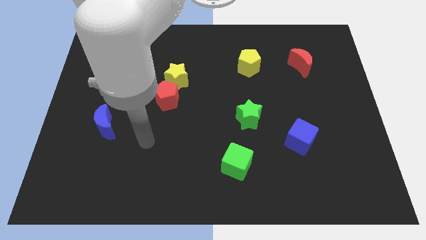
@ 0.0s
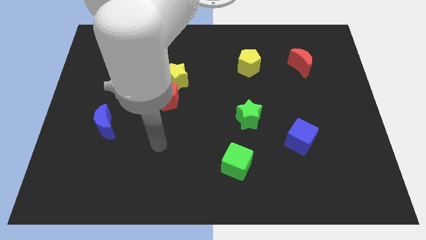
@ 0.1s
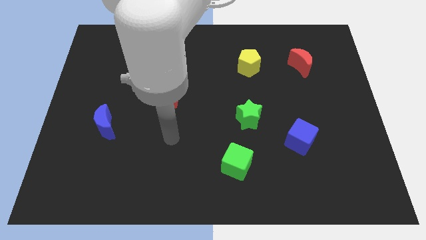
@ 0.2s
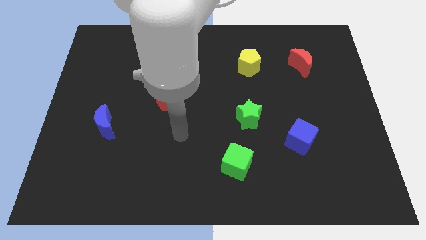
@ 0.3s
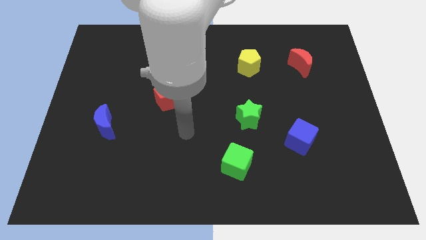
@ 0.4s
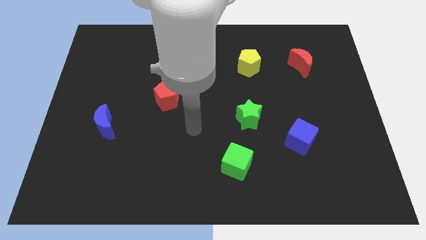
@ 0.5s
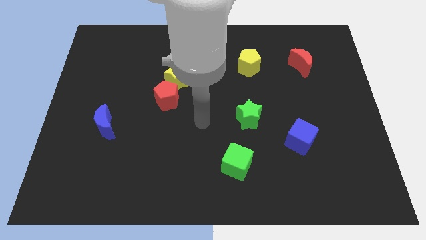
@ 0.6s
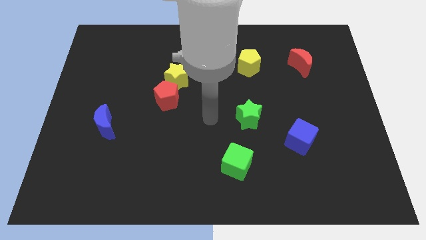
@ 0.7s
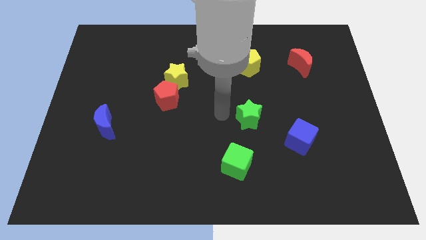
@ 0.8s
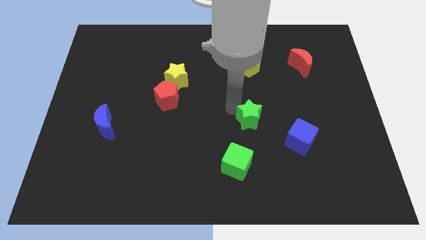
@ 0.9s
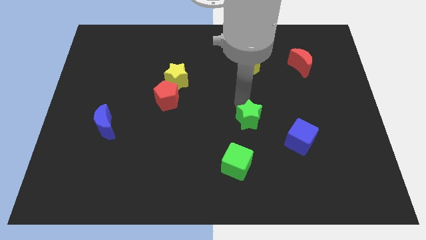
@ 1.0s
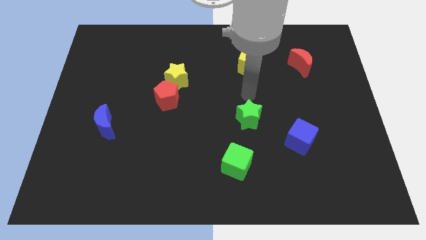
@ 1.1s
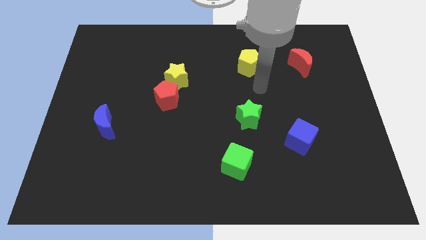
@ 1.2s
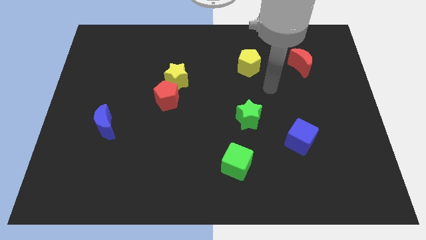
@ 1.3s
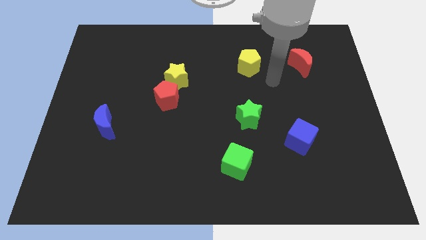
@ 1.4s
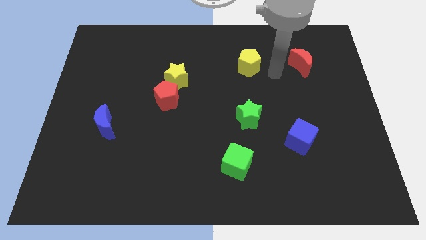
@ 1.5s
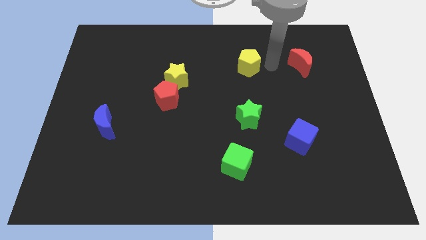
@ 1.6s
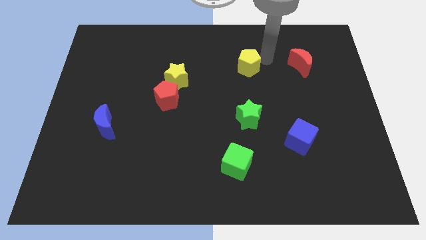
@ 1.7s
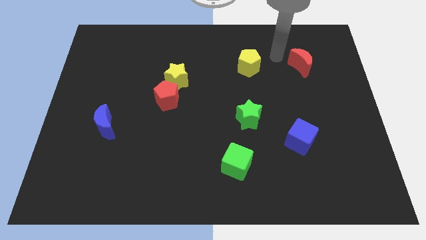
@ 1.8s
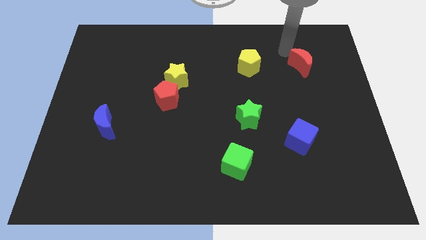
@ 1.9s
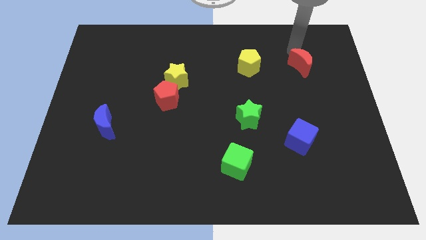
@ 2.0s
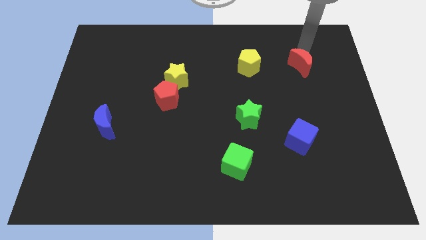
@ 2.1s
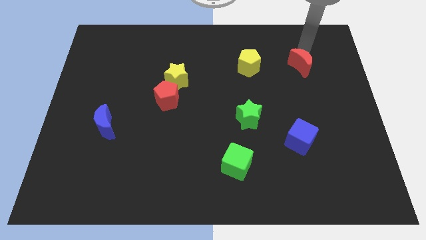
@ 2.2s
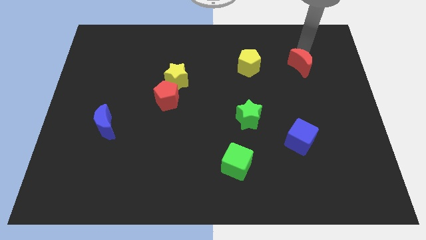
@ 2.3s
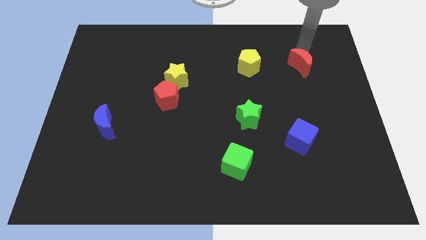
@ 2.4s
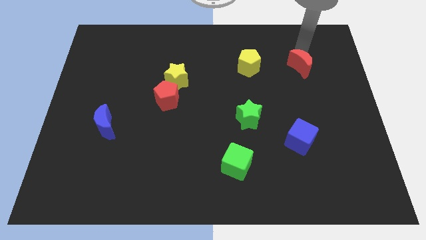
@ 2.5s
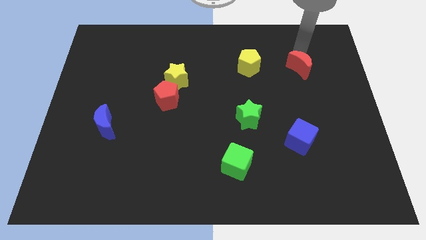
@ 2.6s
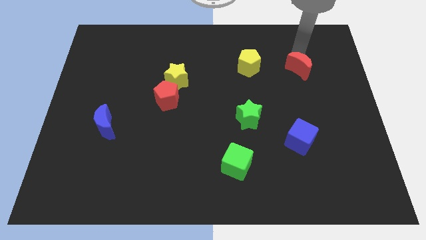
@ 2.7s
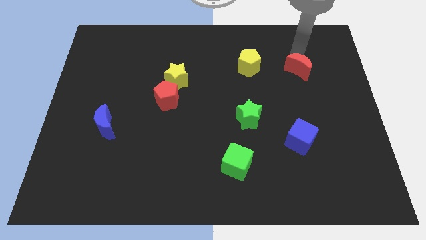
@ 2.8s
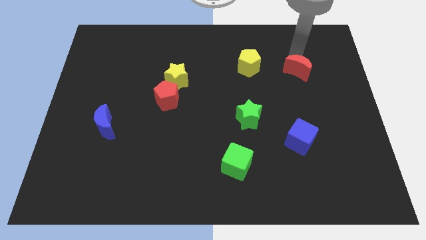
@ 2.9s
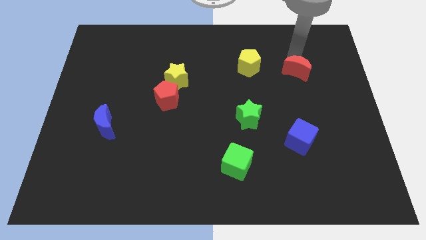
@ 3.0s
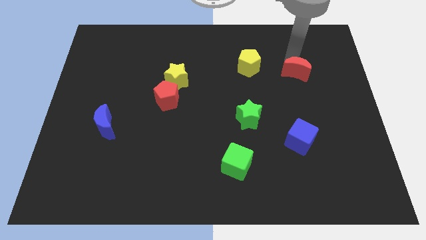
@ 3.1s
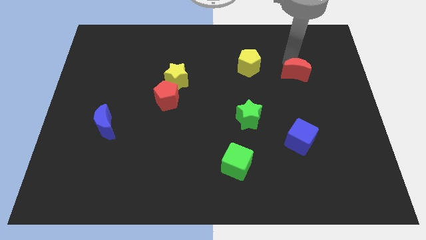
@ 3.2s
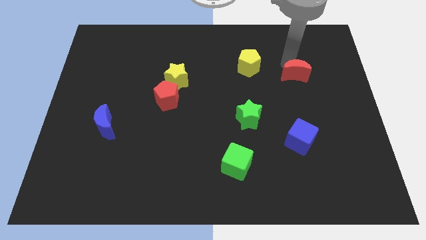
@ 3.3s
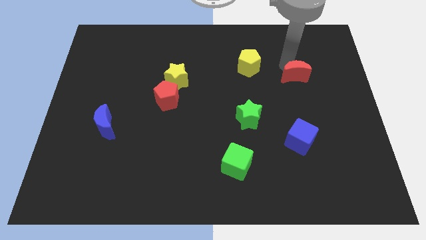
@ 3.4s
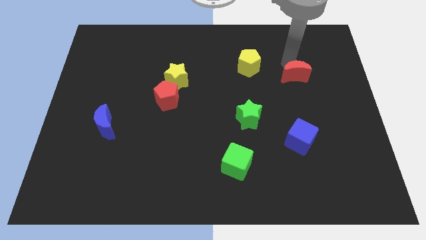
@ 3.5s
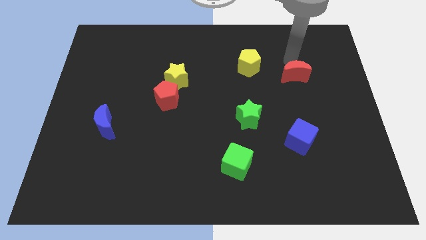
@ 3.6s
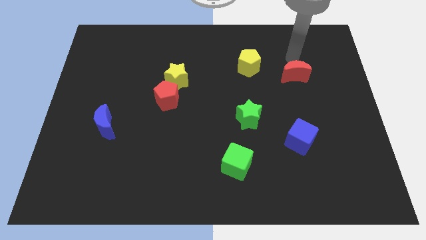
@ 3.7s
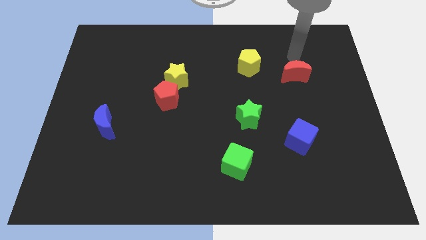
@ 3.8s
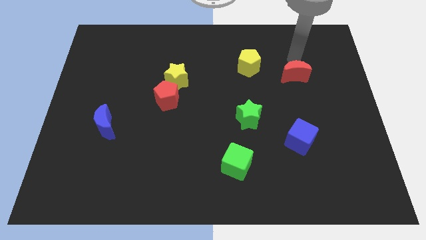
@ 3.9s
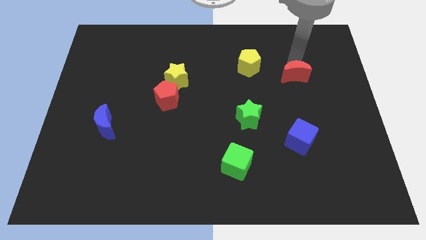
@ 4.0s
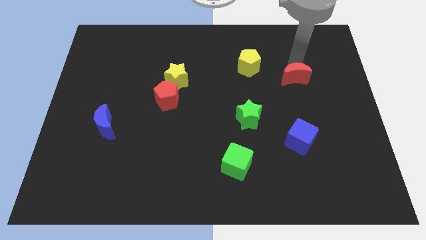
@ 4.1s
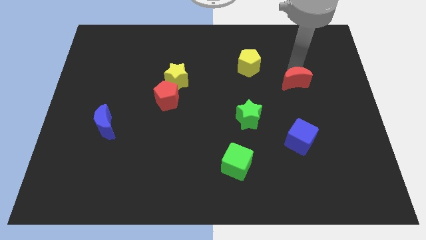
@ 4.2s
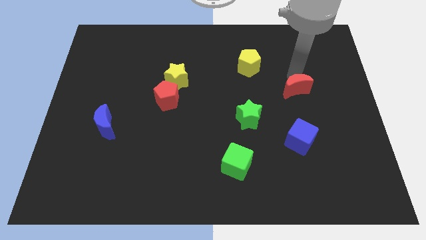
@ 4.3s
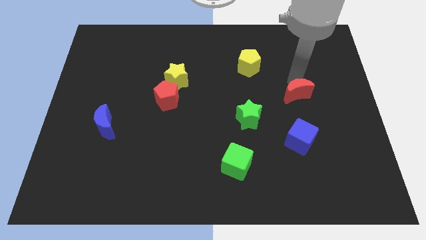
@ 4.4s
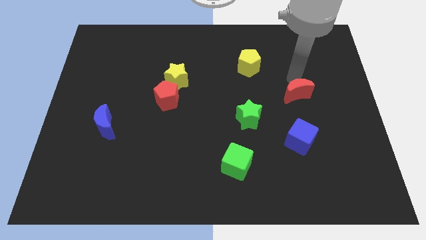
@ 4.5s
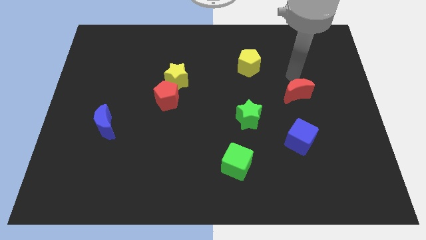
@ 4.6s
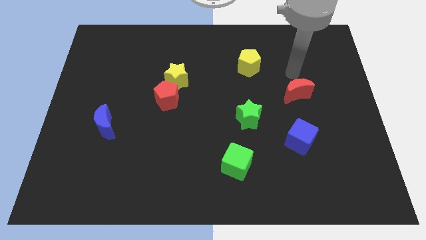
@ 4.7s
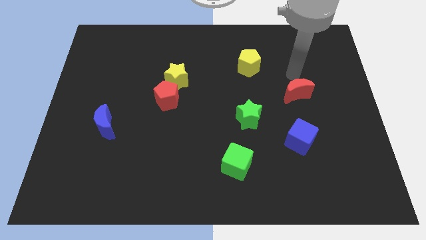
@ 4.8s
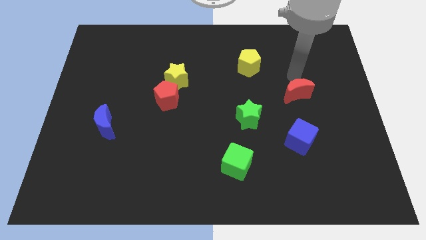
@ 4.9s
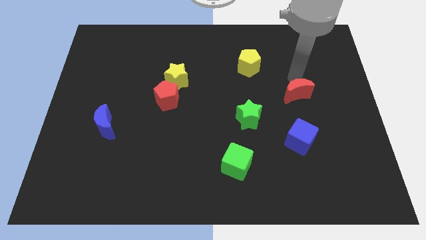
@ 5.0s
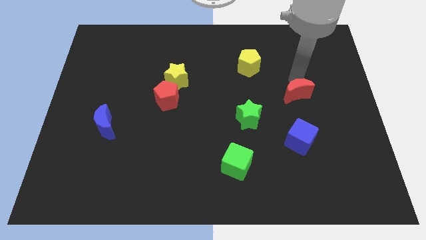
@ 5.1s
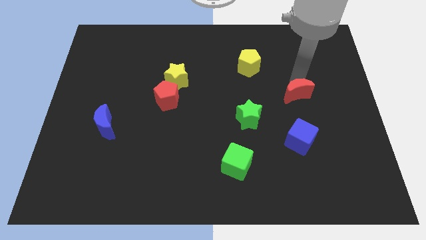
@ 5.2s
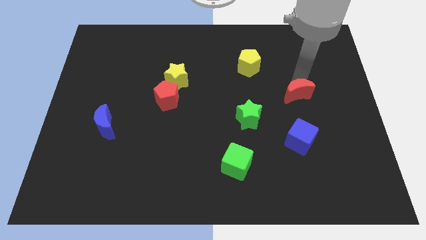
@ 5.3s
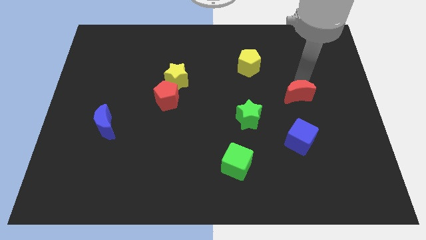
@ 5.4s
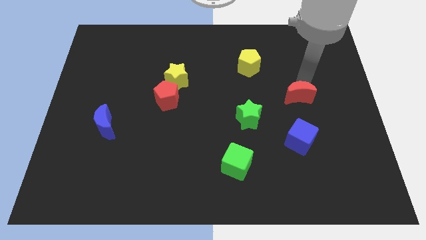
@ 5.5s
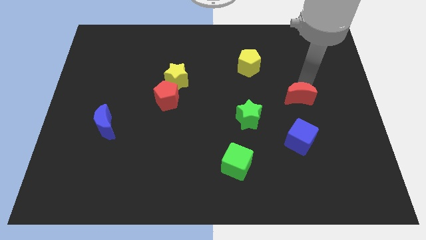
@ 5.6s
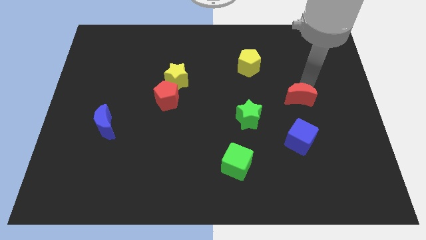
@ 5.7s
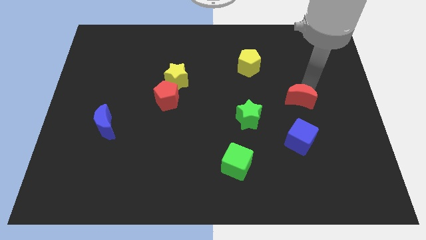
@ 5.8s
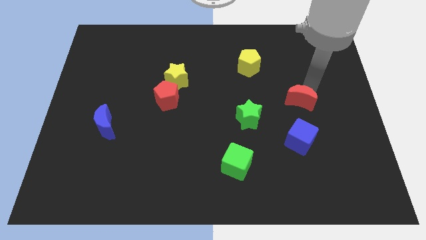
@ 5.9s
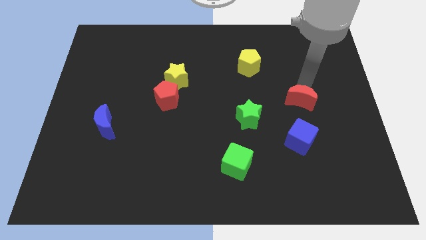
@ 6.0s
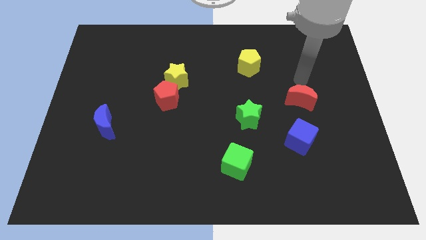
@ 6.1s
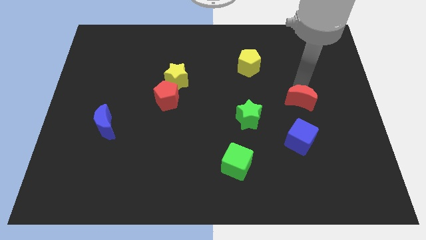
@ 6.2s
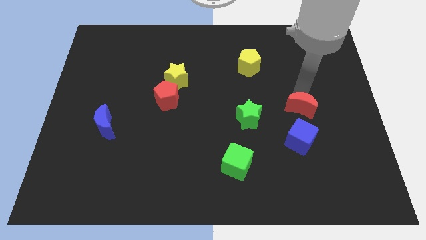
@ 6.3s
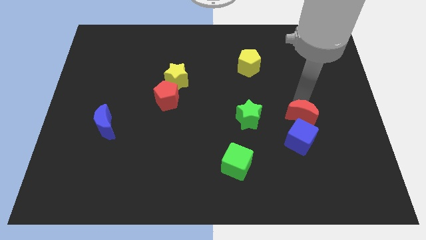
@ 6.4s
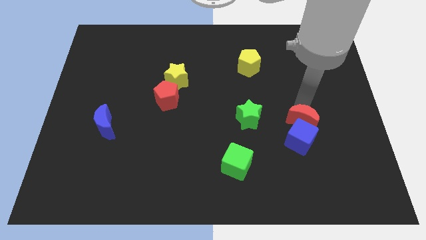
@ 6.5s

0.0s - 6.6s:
move the red moon towards the blue cube
